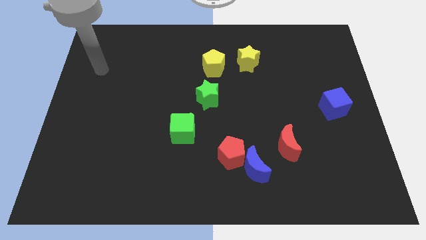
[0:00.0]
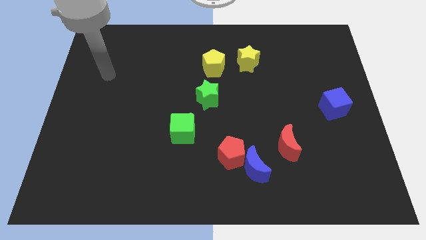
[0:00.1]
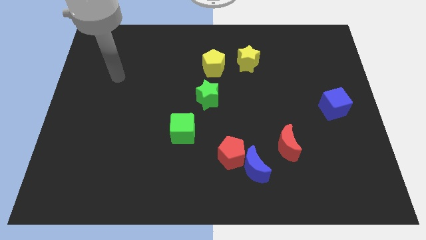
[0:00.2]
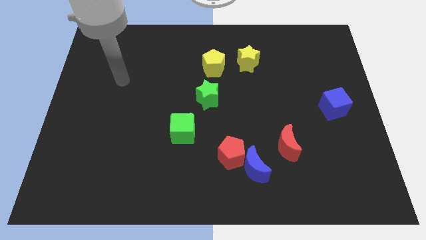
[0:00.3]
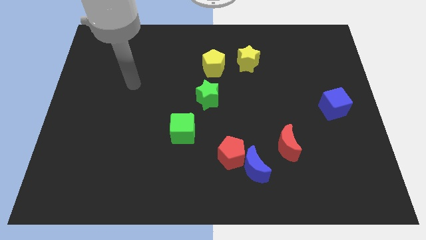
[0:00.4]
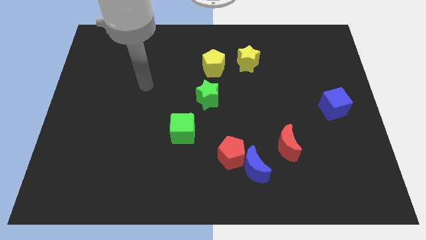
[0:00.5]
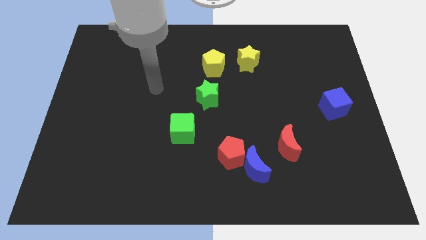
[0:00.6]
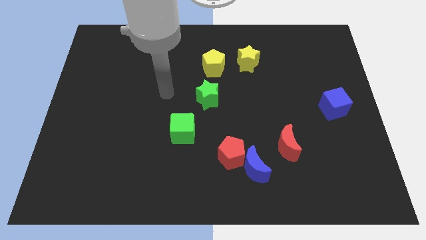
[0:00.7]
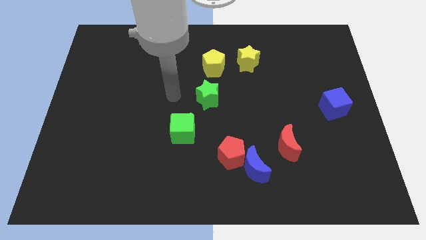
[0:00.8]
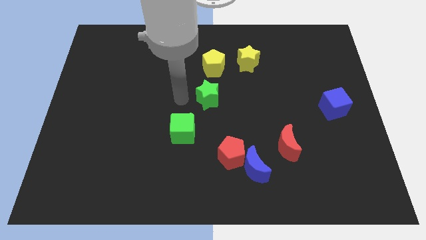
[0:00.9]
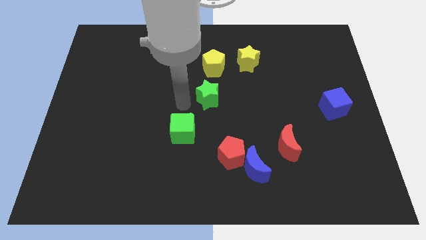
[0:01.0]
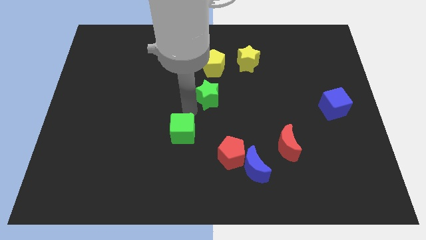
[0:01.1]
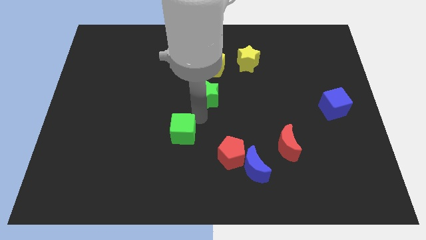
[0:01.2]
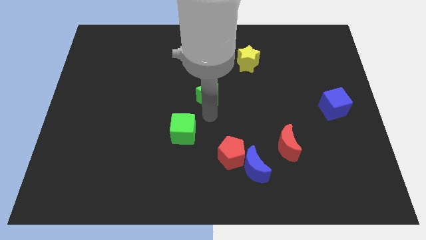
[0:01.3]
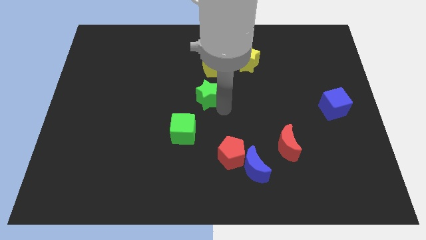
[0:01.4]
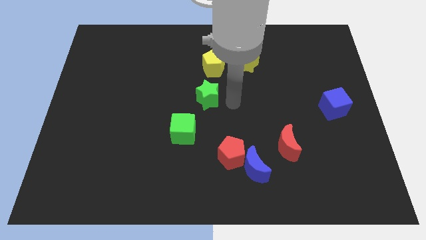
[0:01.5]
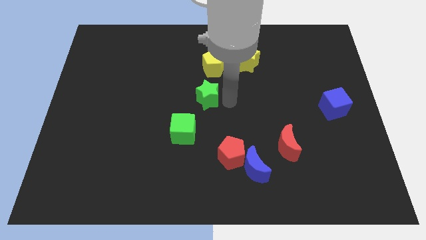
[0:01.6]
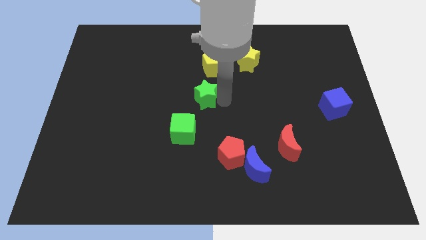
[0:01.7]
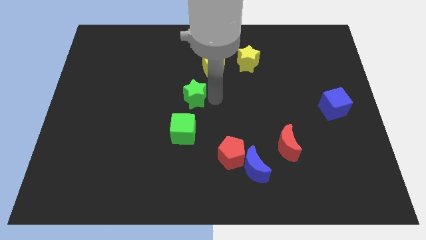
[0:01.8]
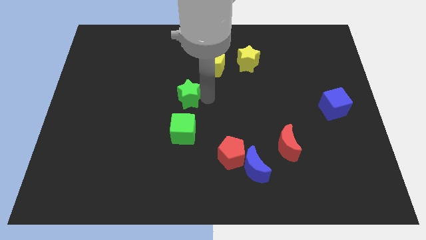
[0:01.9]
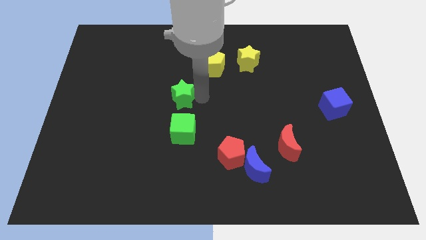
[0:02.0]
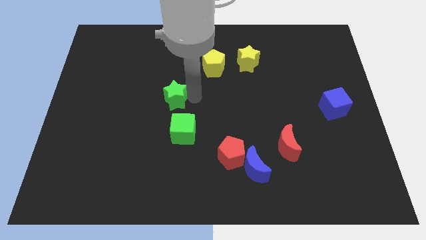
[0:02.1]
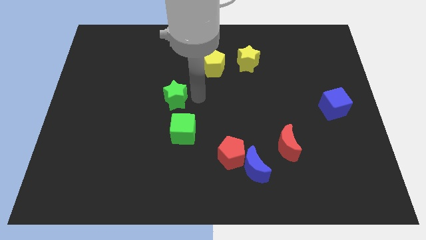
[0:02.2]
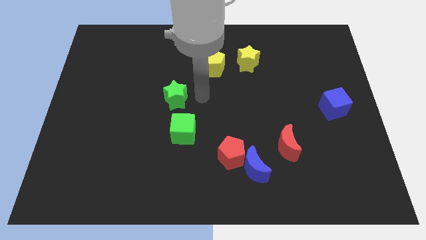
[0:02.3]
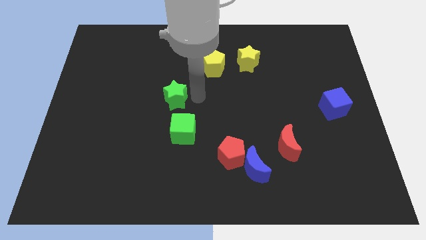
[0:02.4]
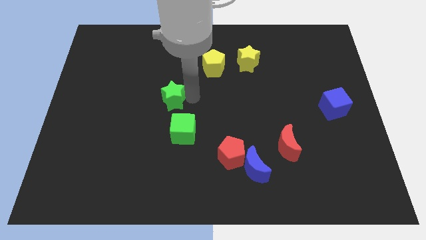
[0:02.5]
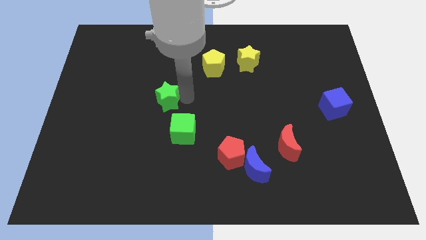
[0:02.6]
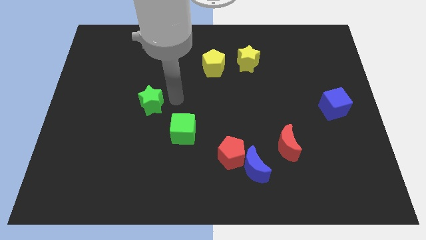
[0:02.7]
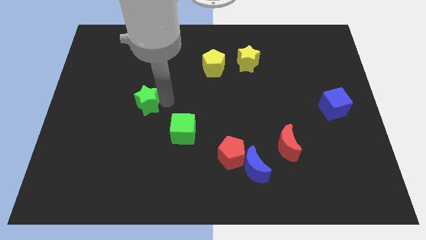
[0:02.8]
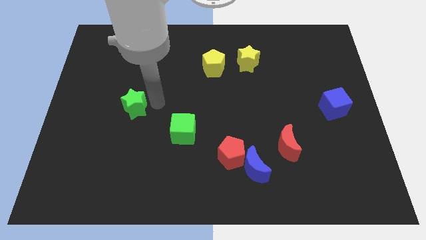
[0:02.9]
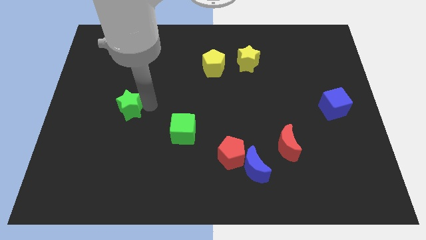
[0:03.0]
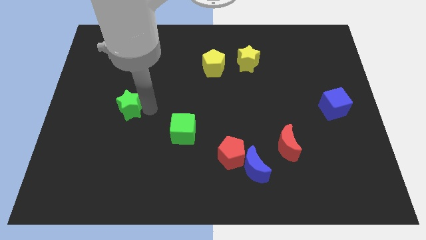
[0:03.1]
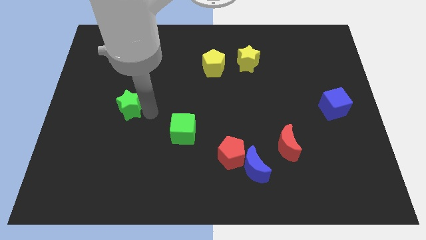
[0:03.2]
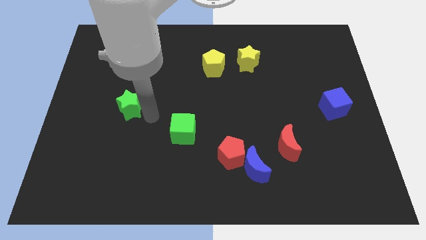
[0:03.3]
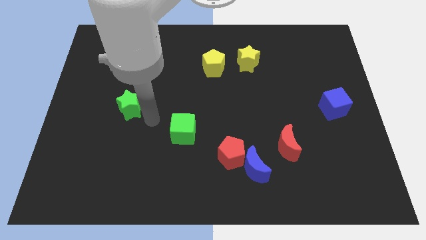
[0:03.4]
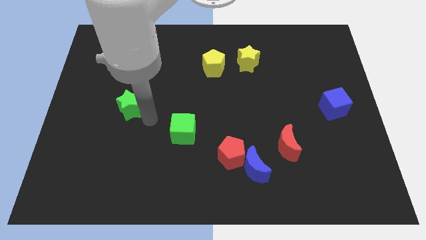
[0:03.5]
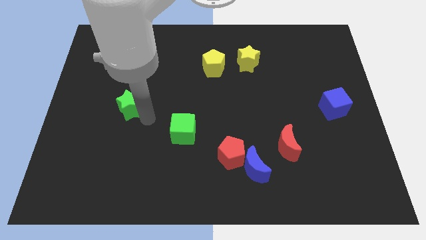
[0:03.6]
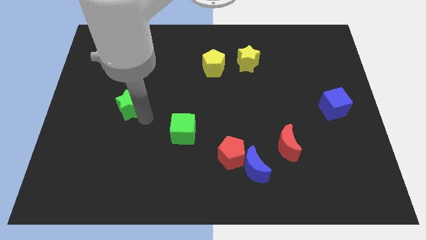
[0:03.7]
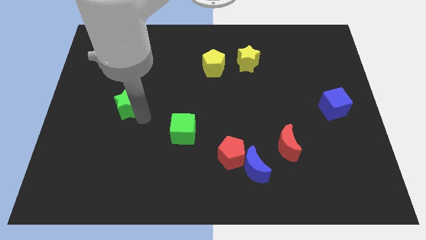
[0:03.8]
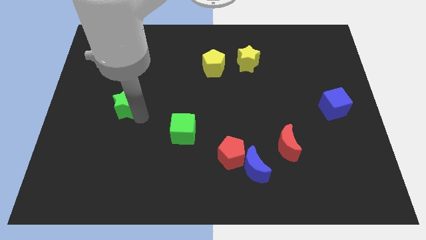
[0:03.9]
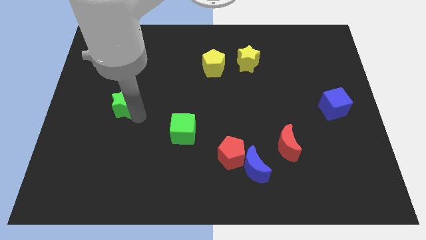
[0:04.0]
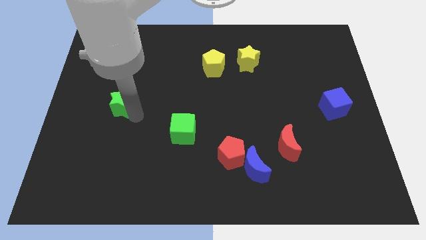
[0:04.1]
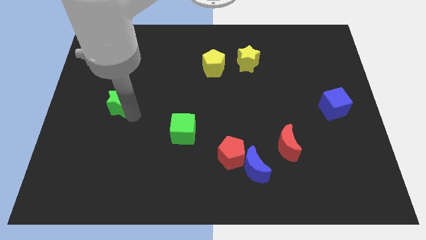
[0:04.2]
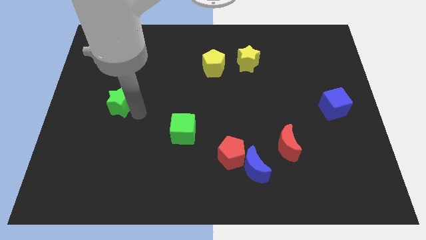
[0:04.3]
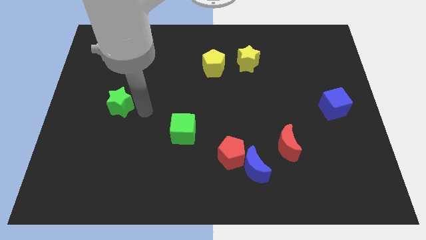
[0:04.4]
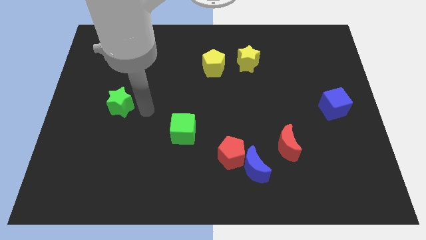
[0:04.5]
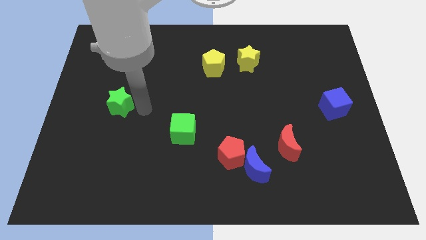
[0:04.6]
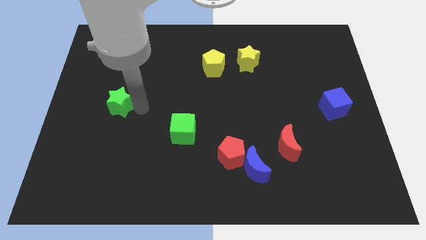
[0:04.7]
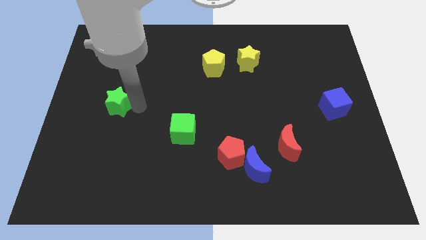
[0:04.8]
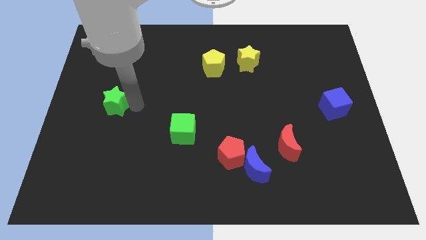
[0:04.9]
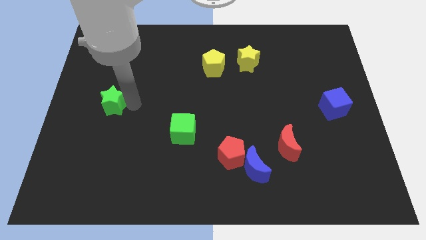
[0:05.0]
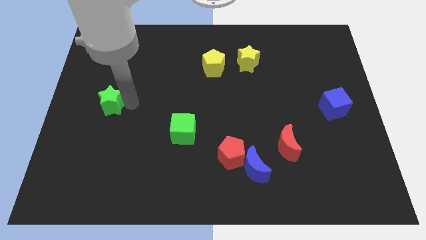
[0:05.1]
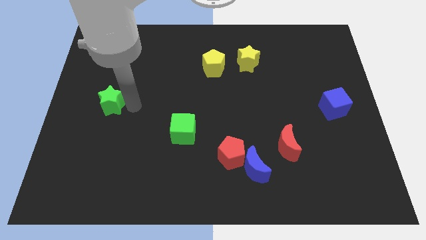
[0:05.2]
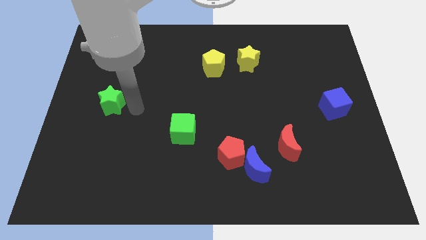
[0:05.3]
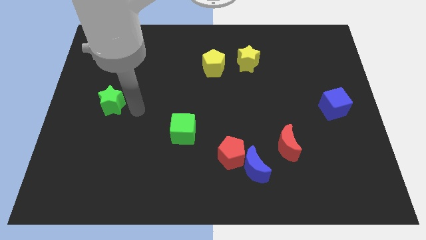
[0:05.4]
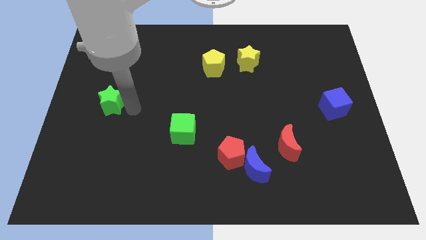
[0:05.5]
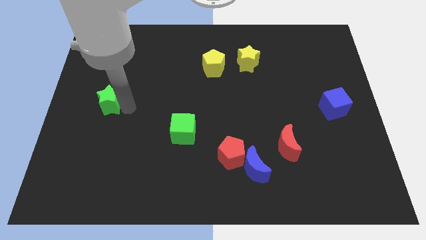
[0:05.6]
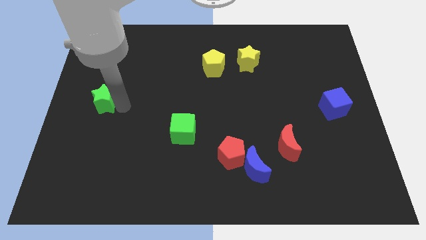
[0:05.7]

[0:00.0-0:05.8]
put the green star to the left side

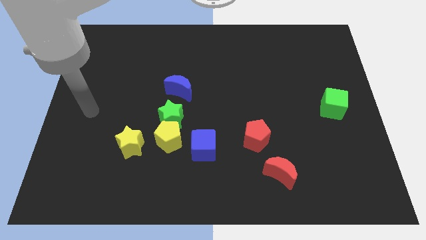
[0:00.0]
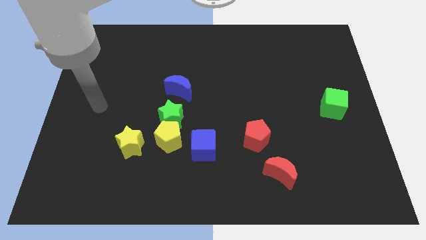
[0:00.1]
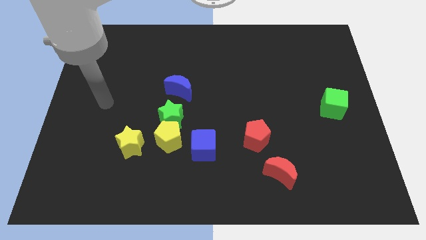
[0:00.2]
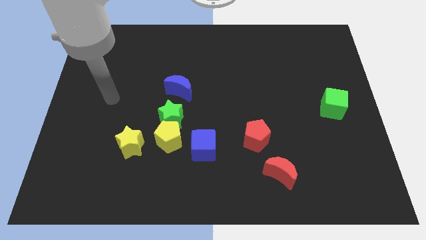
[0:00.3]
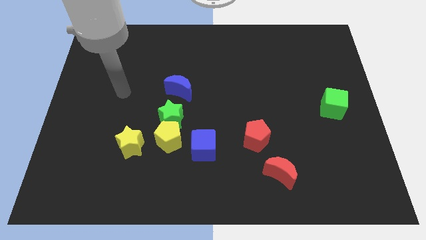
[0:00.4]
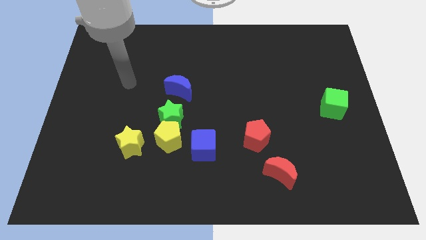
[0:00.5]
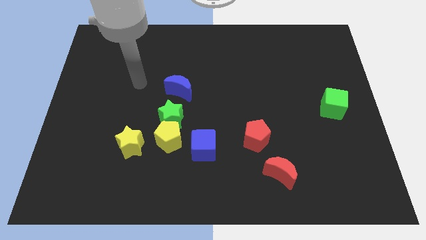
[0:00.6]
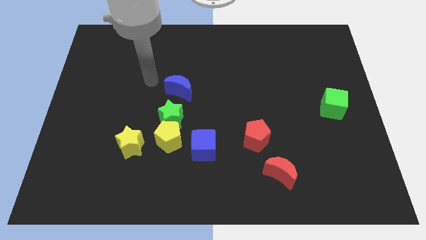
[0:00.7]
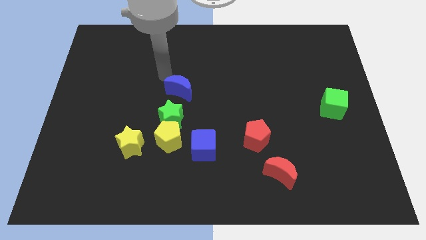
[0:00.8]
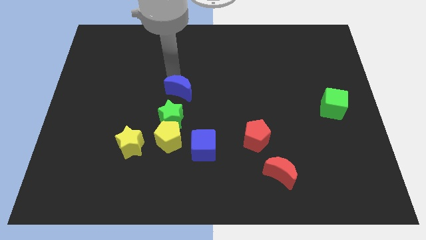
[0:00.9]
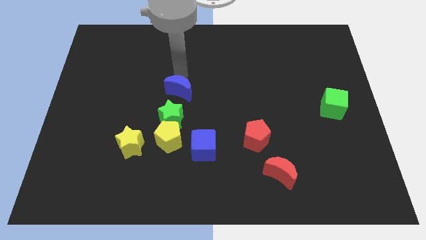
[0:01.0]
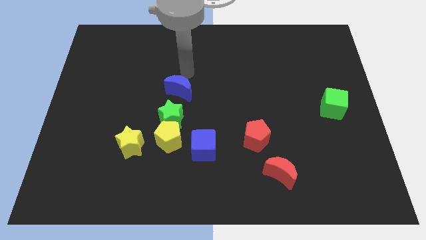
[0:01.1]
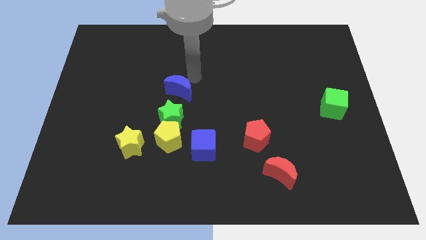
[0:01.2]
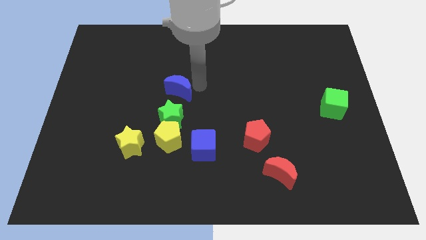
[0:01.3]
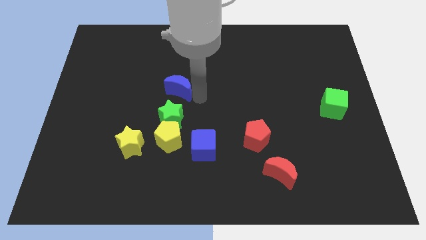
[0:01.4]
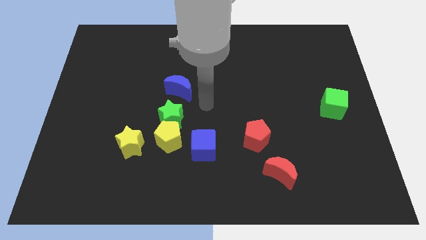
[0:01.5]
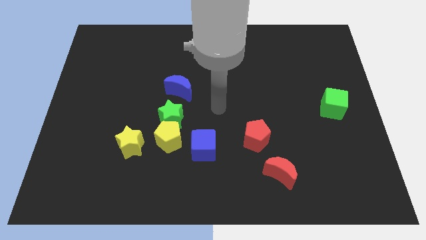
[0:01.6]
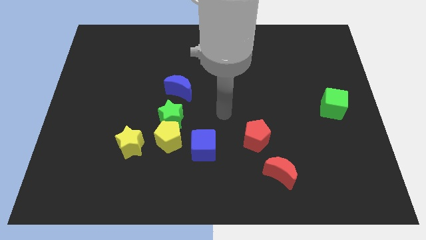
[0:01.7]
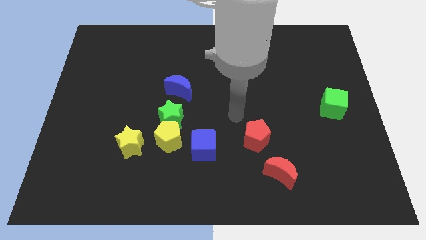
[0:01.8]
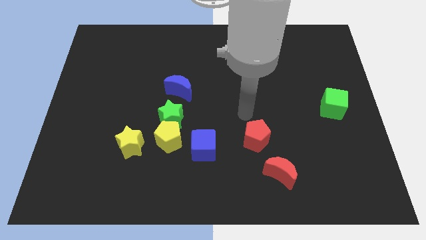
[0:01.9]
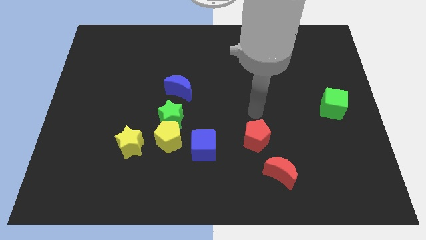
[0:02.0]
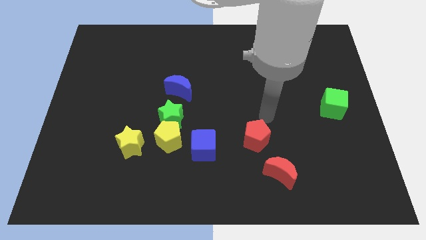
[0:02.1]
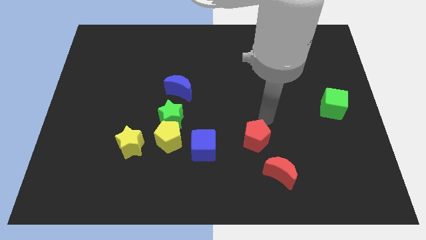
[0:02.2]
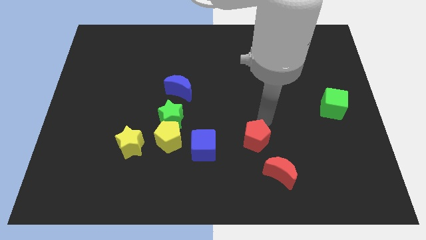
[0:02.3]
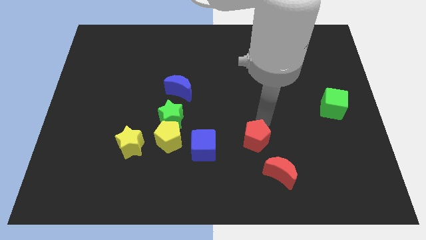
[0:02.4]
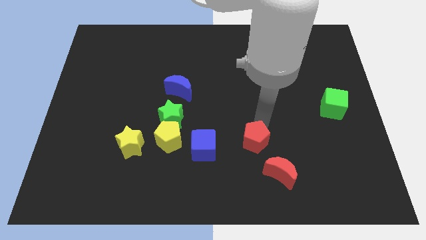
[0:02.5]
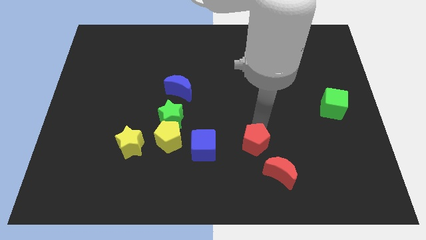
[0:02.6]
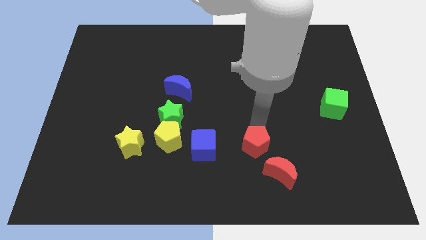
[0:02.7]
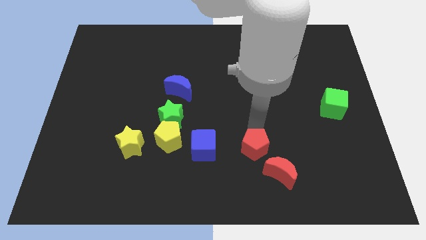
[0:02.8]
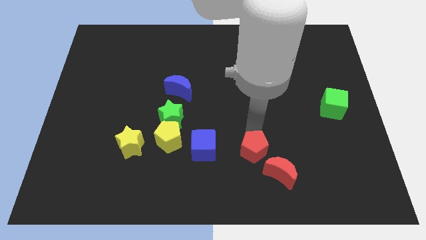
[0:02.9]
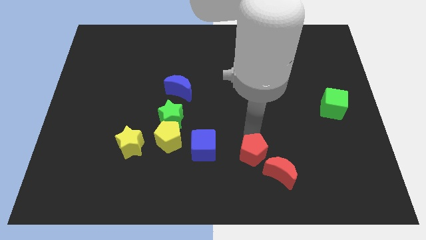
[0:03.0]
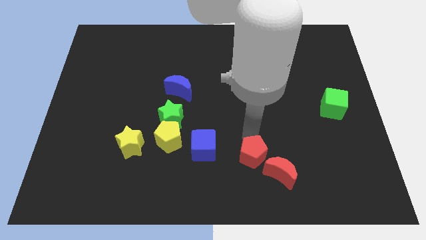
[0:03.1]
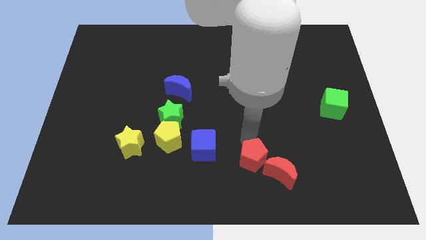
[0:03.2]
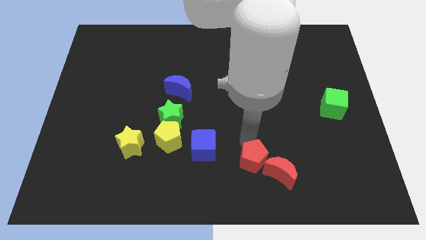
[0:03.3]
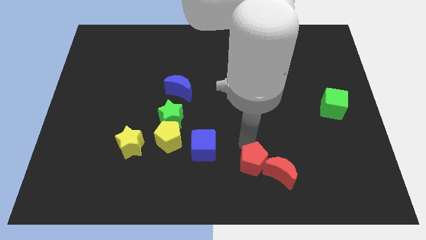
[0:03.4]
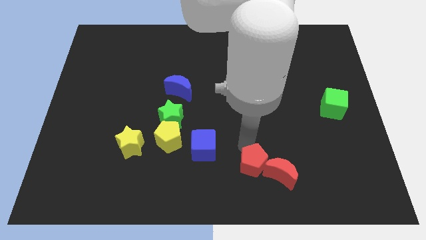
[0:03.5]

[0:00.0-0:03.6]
slide the red pentagon to the bottom side
